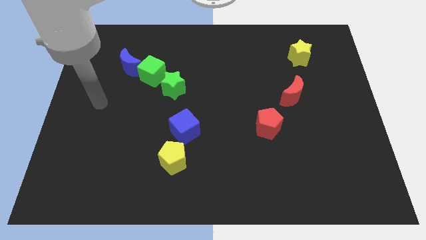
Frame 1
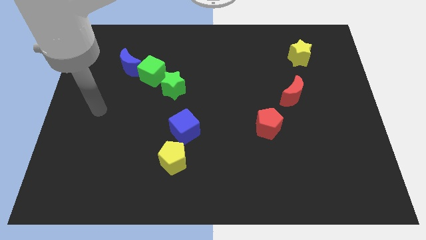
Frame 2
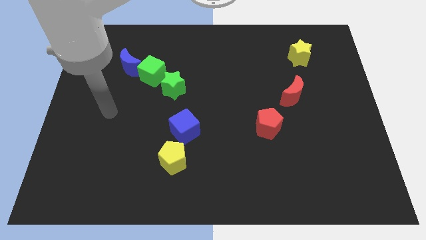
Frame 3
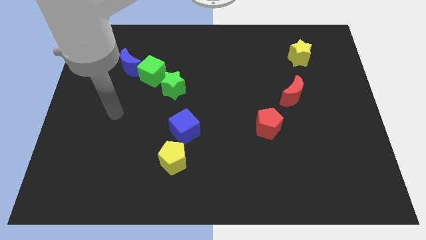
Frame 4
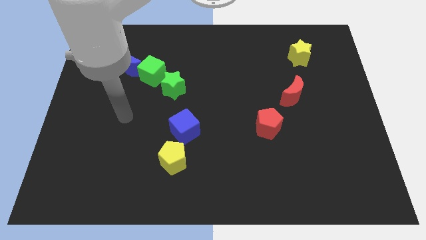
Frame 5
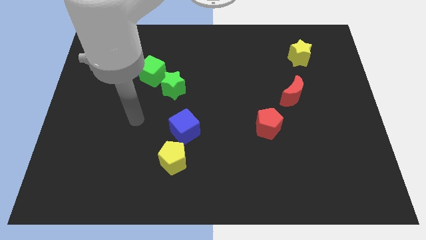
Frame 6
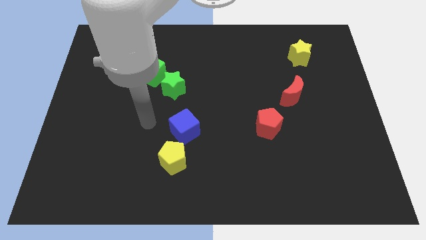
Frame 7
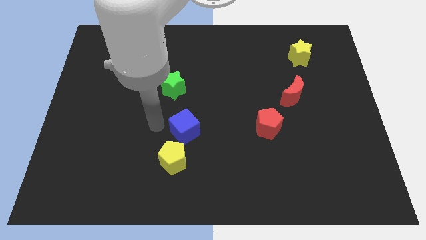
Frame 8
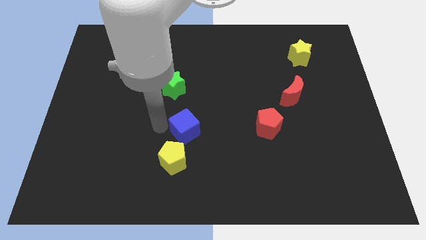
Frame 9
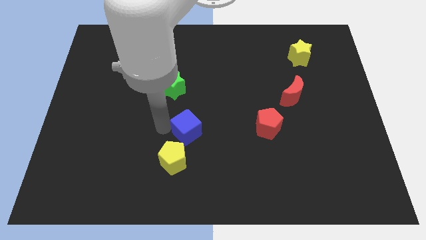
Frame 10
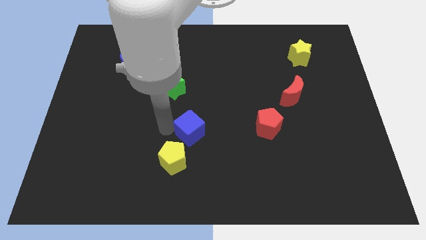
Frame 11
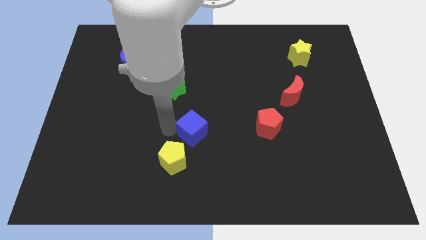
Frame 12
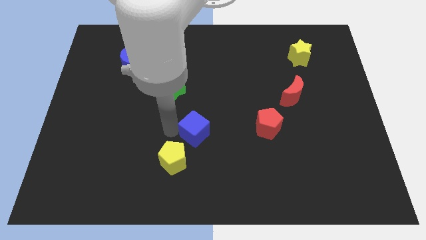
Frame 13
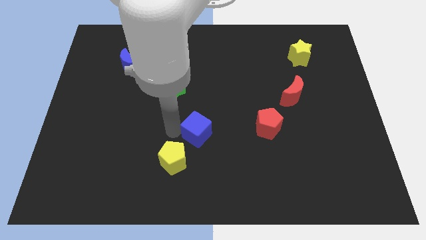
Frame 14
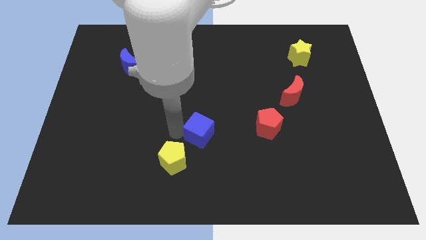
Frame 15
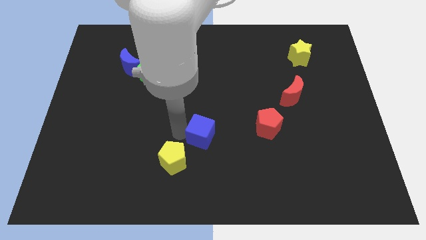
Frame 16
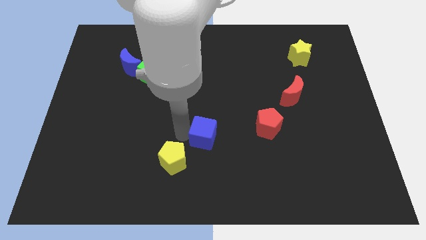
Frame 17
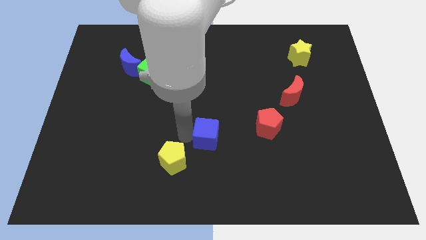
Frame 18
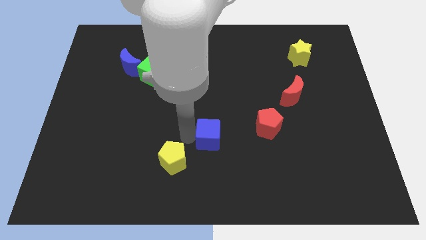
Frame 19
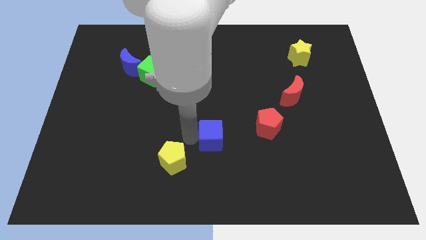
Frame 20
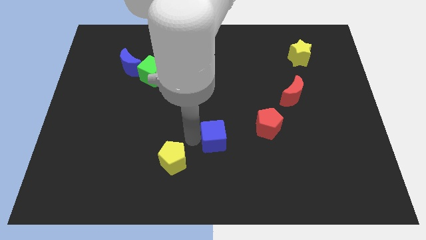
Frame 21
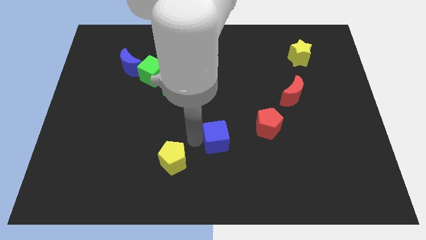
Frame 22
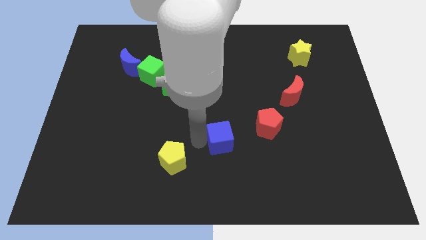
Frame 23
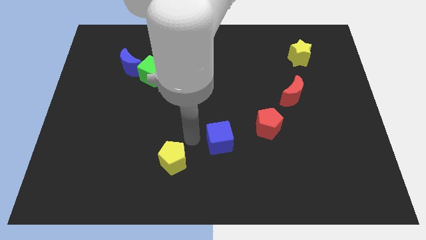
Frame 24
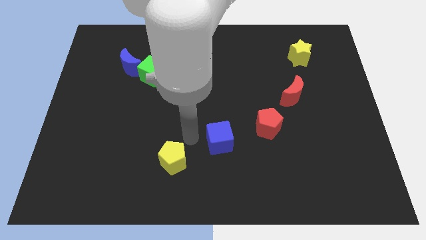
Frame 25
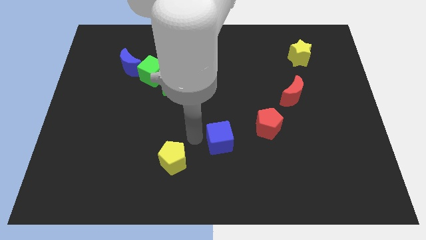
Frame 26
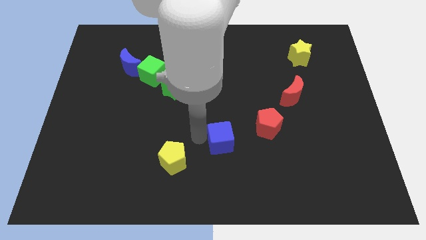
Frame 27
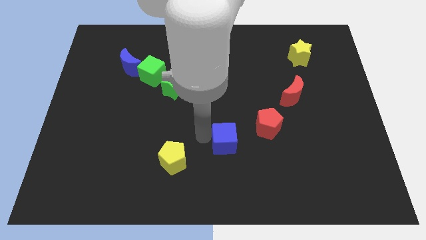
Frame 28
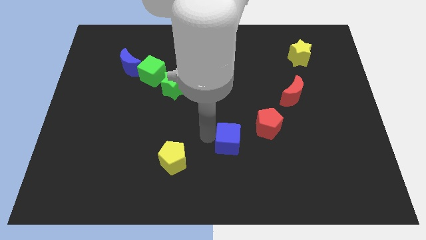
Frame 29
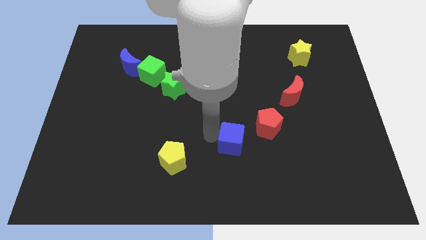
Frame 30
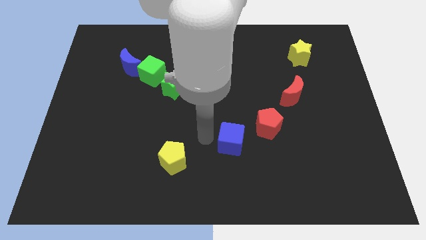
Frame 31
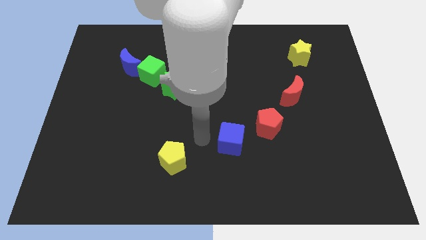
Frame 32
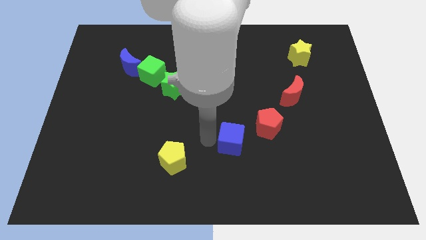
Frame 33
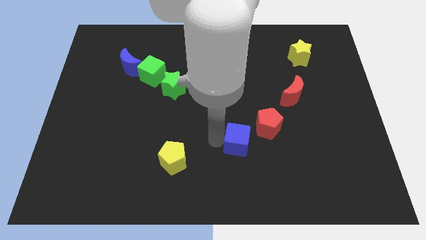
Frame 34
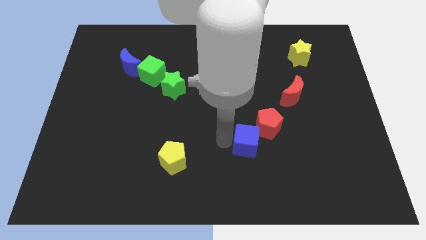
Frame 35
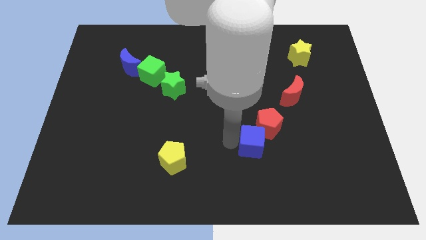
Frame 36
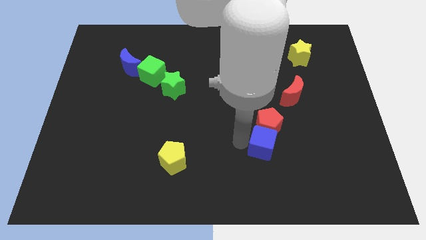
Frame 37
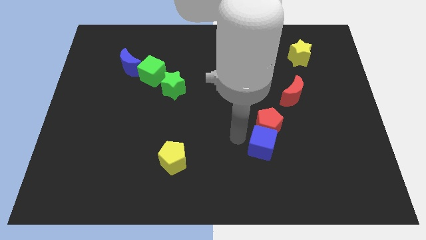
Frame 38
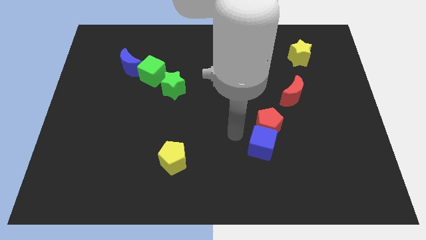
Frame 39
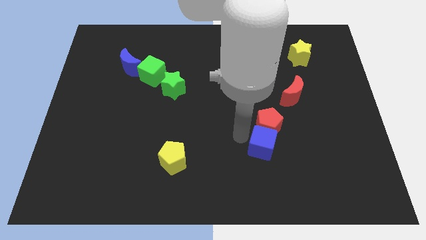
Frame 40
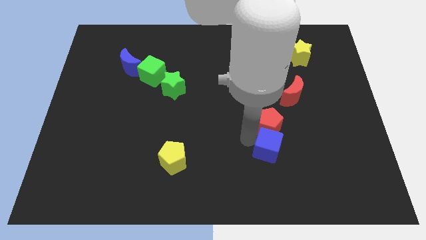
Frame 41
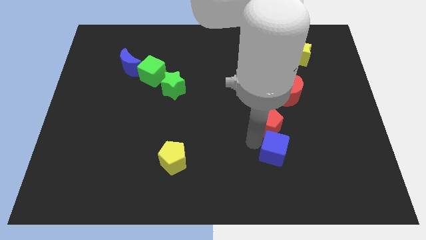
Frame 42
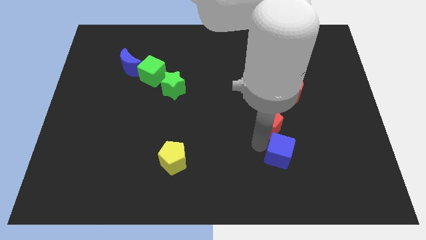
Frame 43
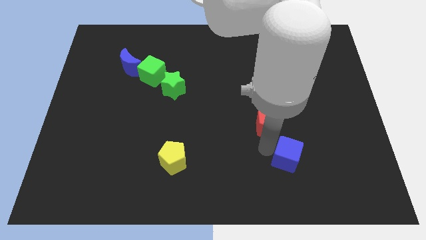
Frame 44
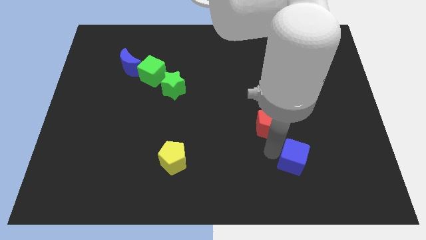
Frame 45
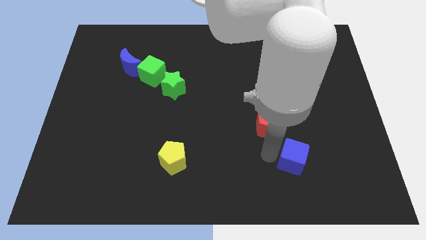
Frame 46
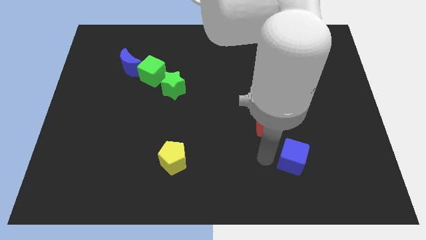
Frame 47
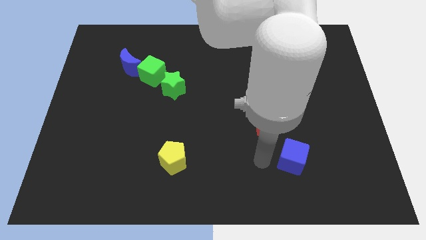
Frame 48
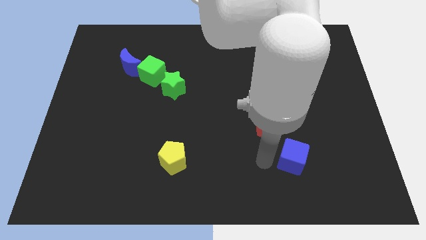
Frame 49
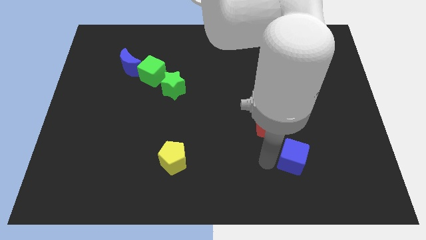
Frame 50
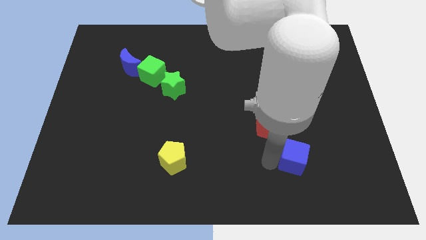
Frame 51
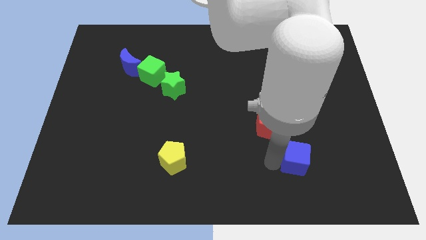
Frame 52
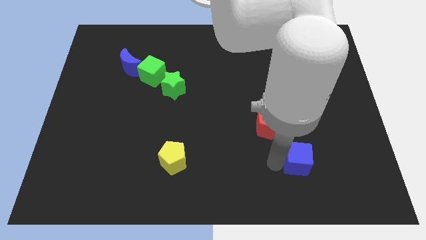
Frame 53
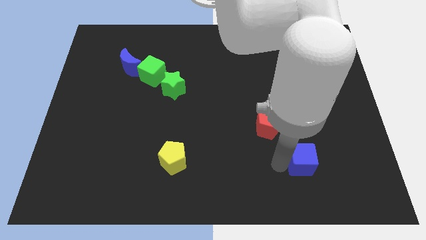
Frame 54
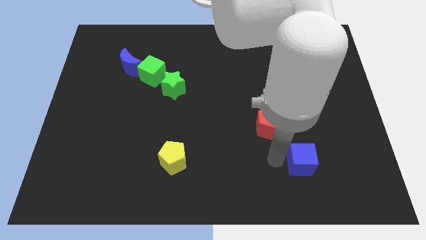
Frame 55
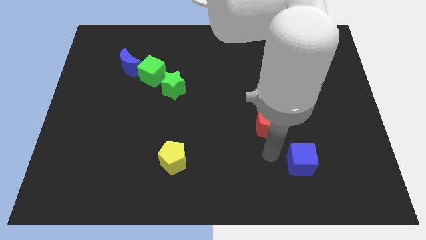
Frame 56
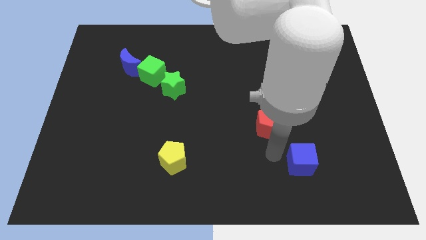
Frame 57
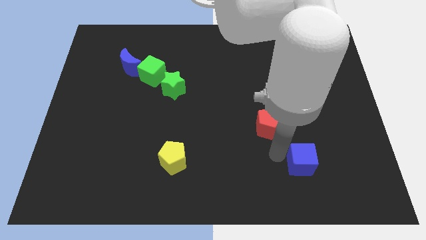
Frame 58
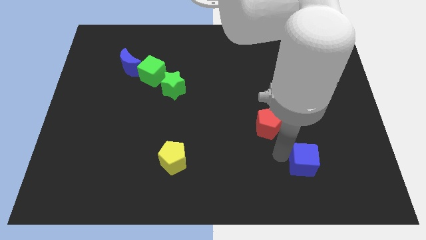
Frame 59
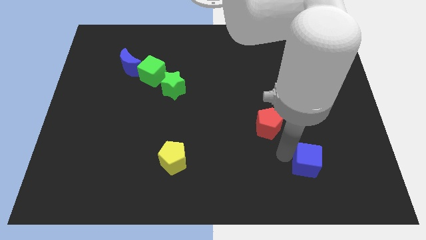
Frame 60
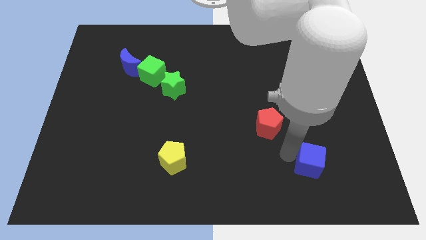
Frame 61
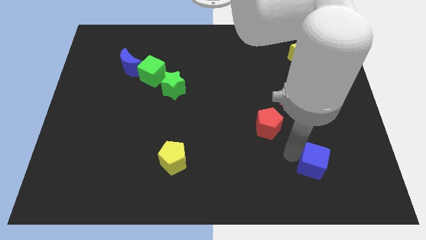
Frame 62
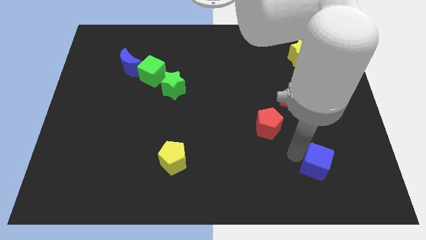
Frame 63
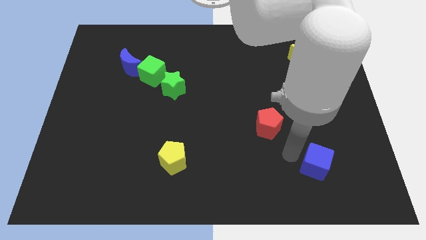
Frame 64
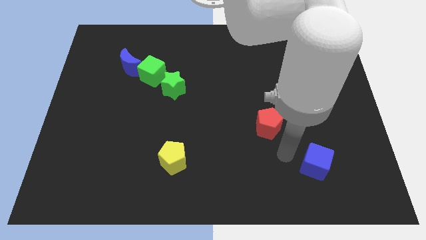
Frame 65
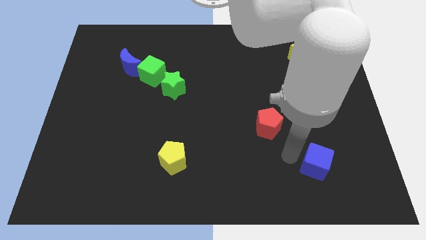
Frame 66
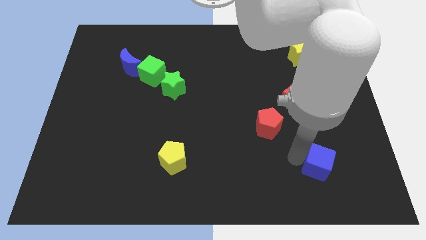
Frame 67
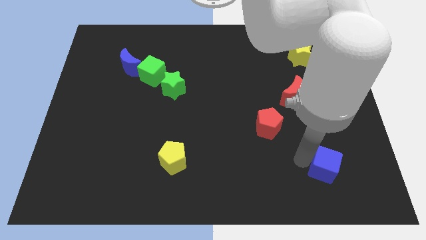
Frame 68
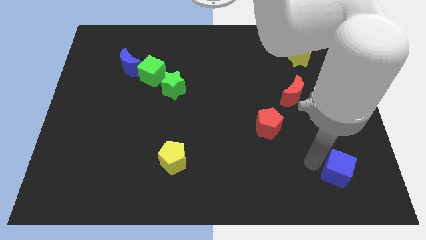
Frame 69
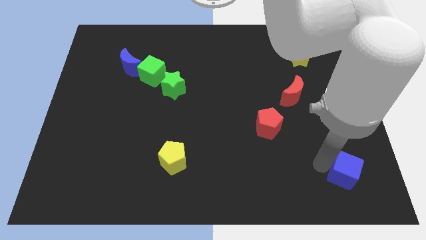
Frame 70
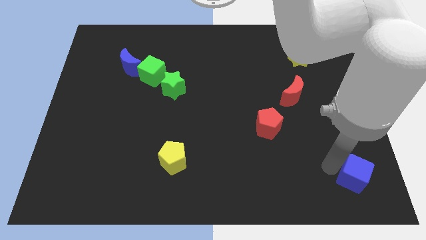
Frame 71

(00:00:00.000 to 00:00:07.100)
put the blue cube to the bottom right
